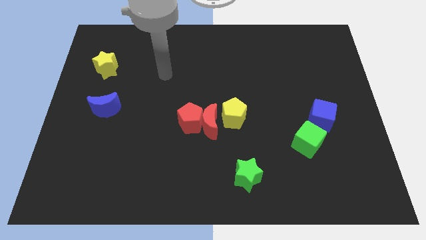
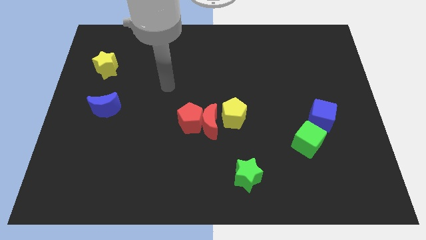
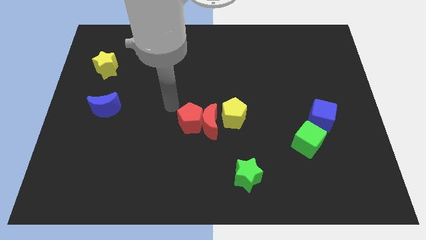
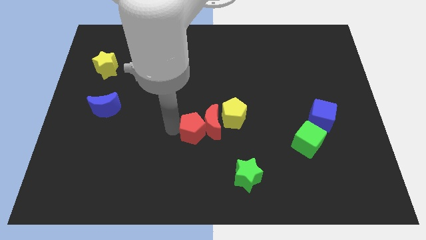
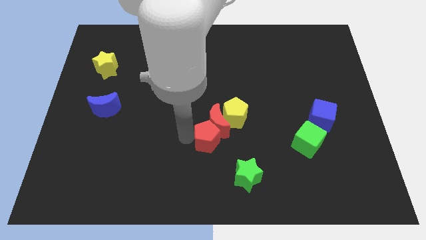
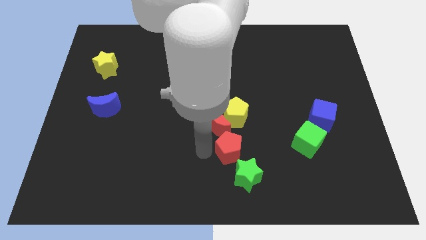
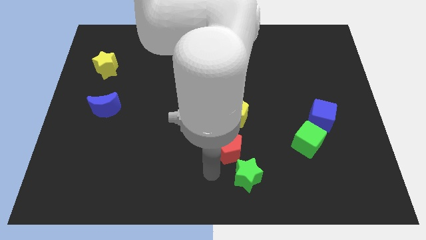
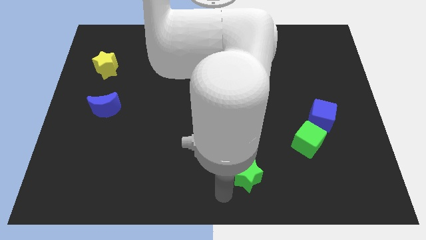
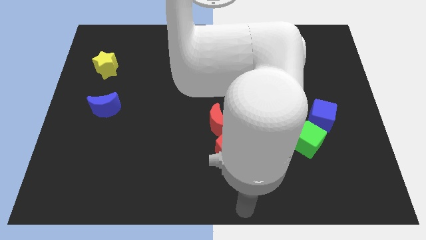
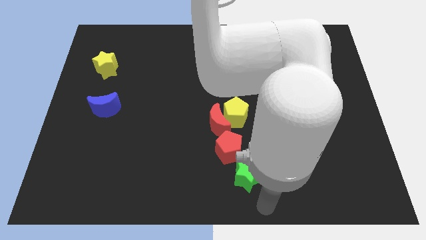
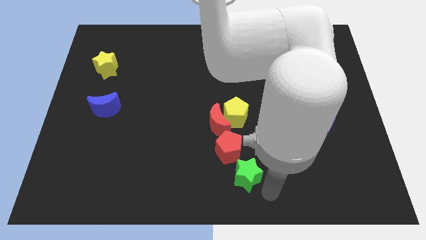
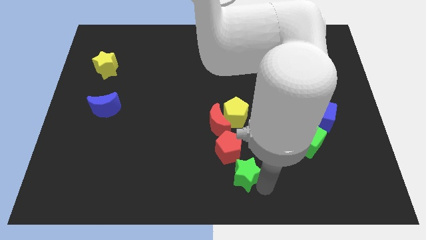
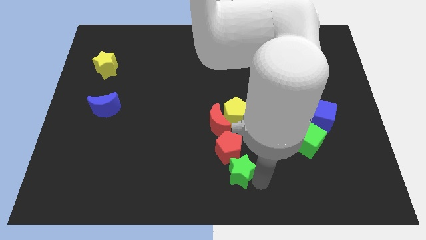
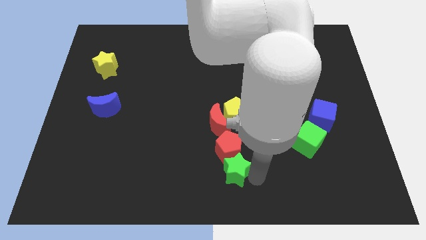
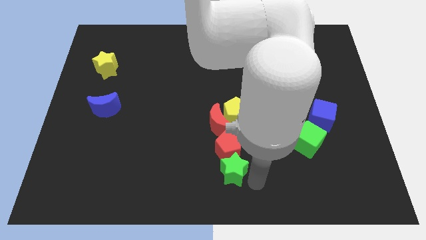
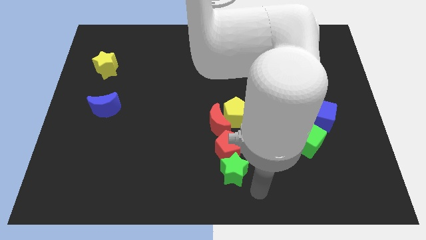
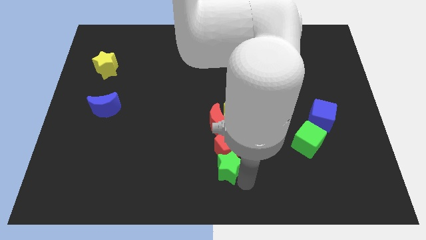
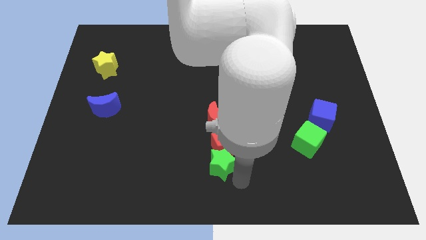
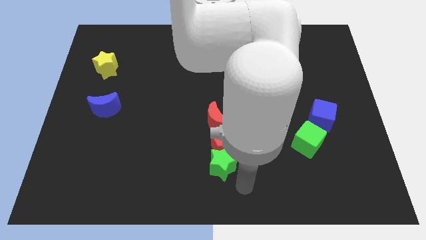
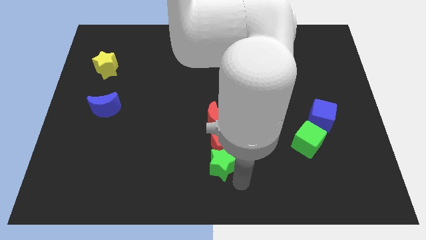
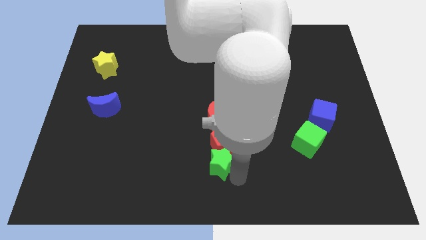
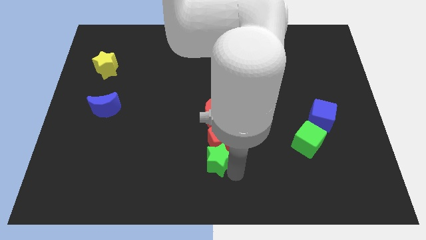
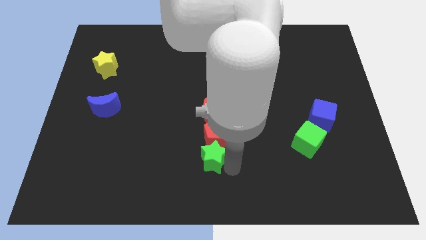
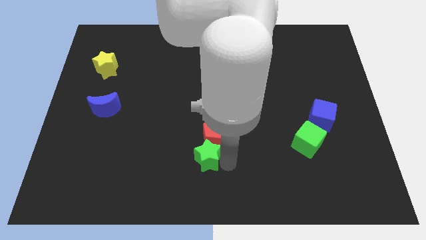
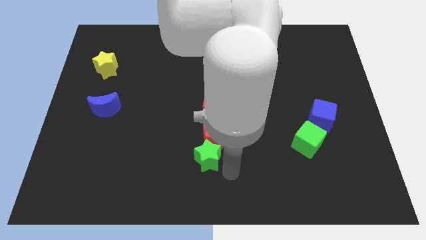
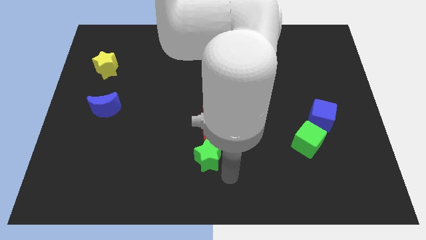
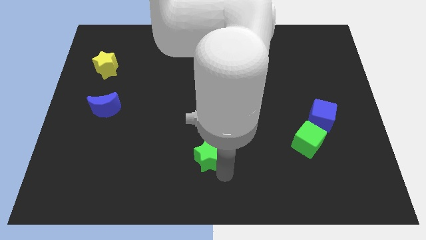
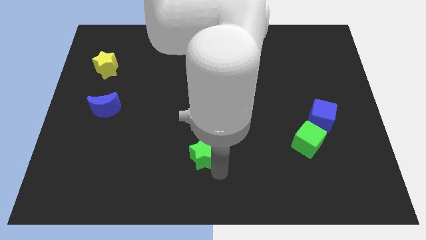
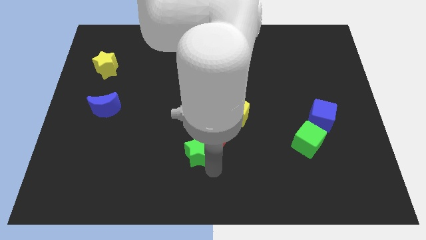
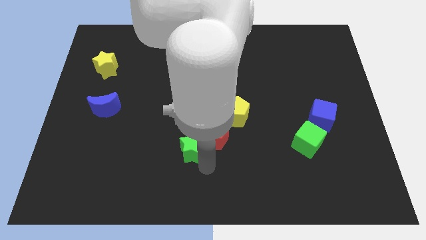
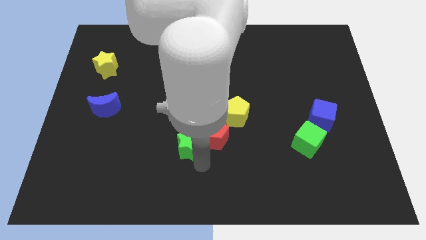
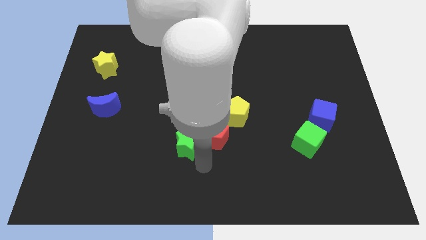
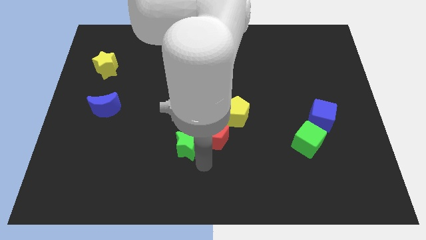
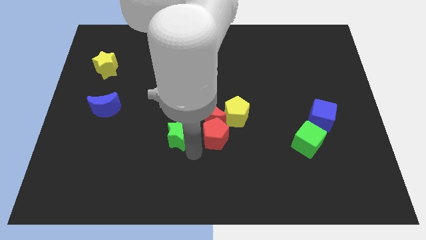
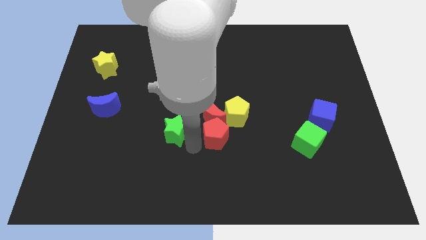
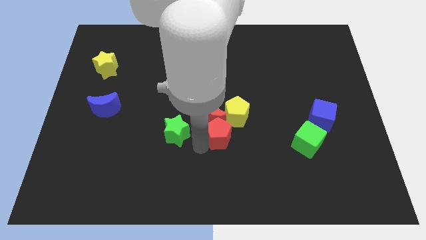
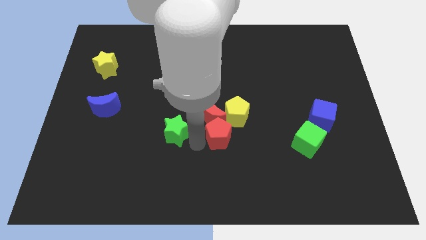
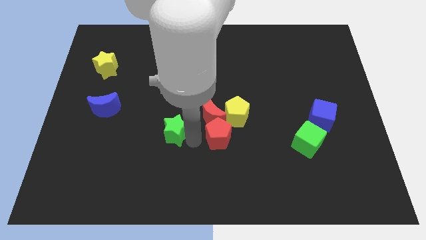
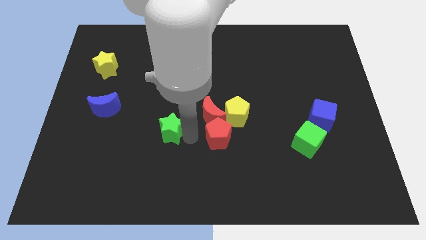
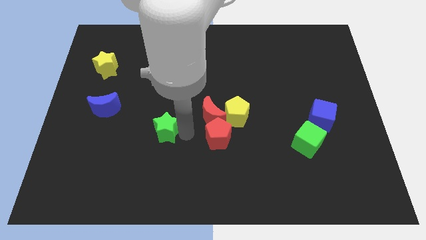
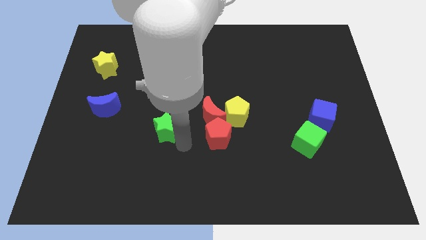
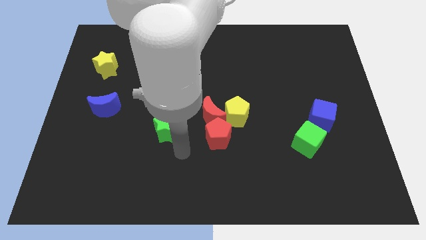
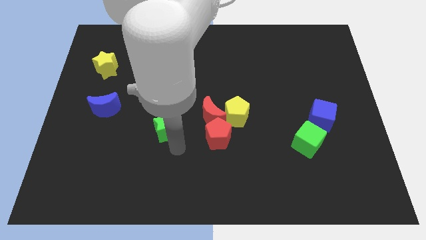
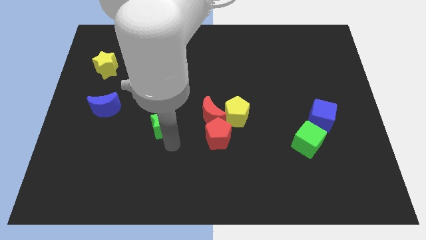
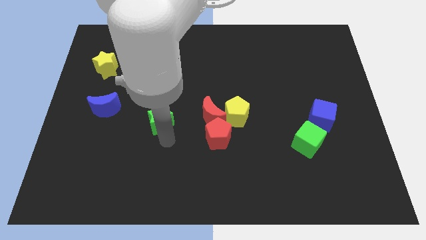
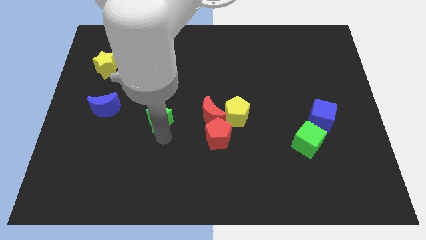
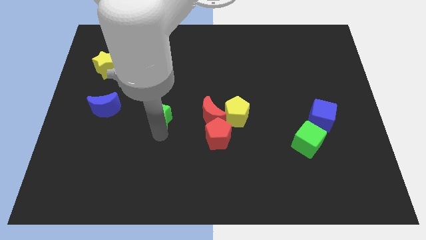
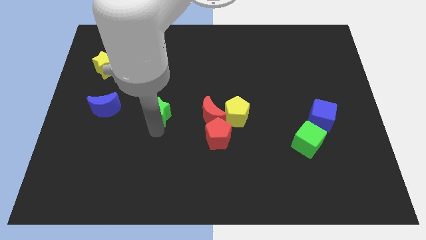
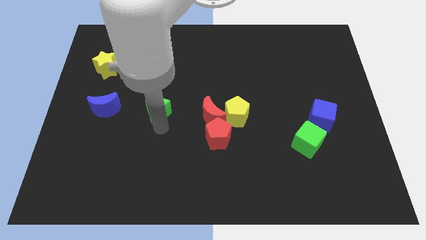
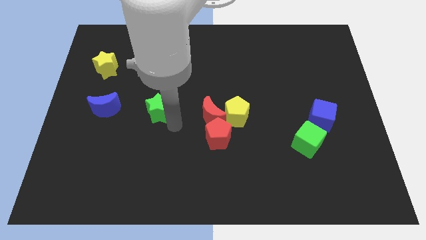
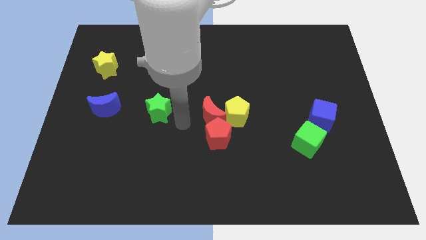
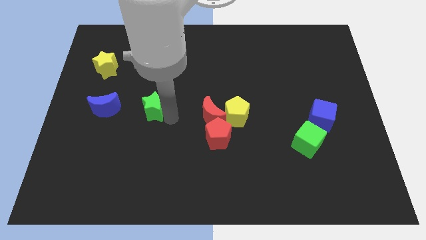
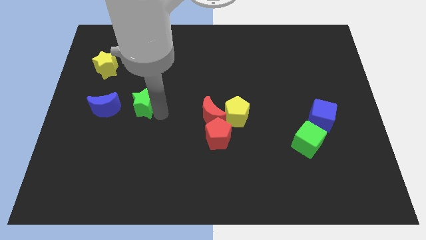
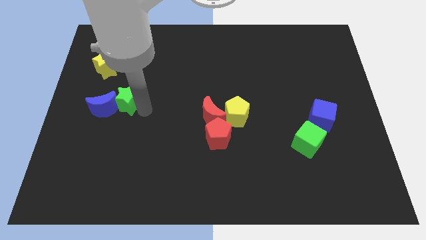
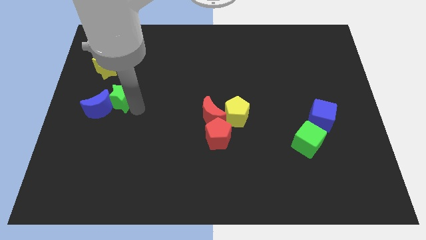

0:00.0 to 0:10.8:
push the green star to the bottom right side of the yellow star

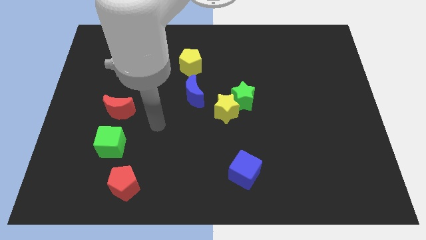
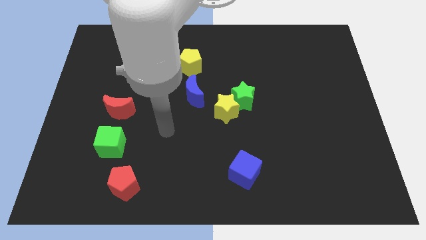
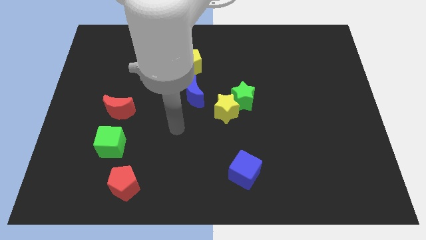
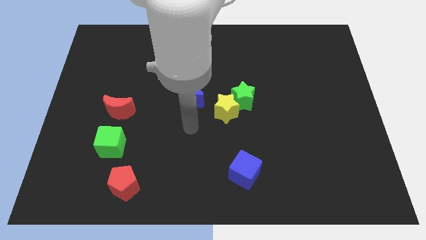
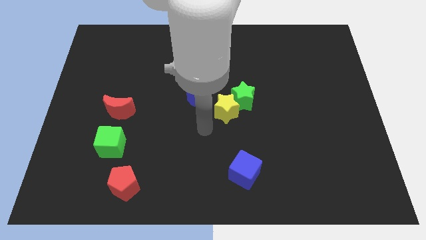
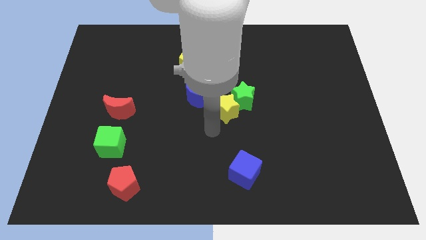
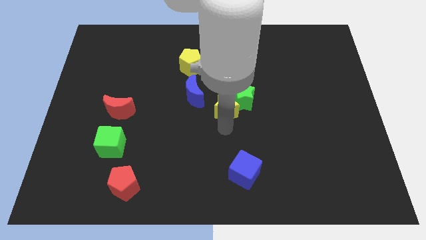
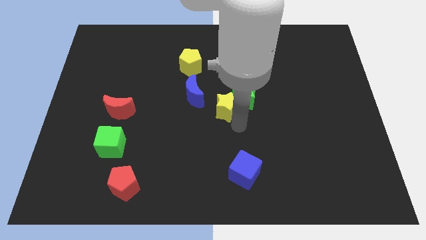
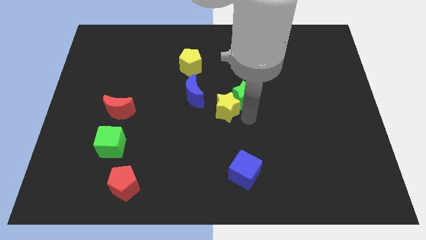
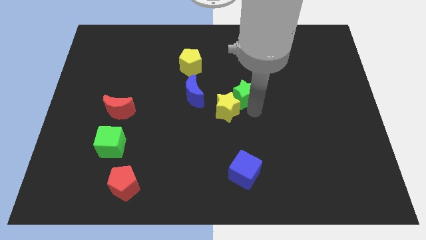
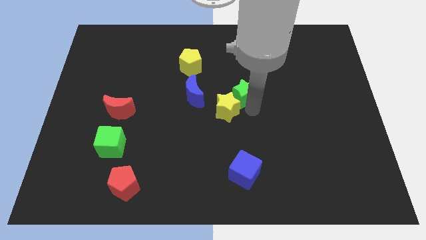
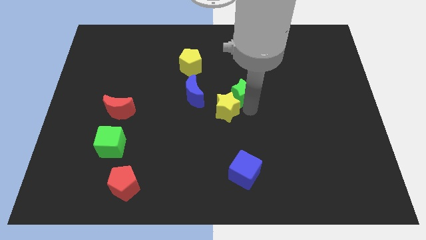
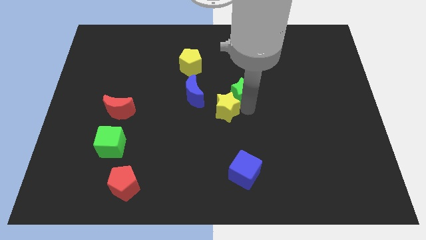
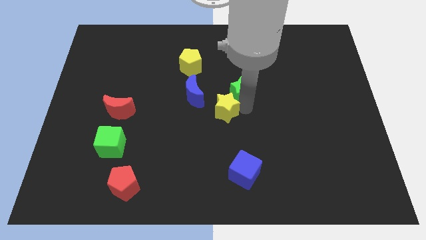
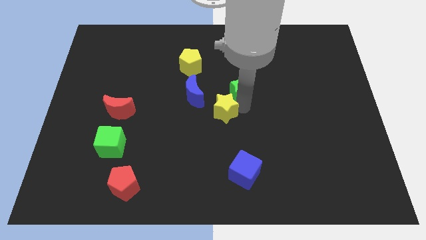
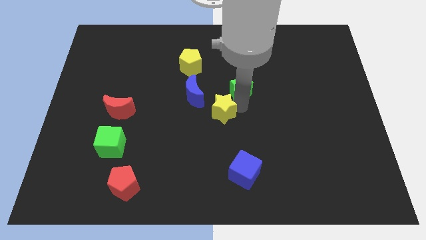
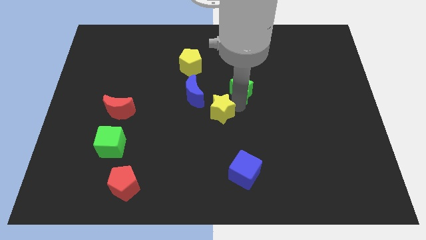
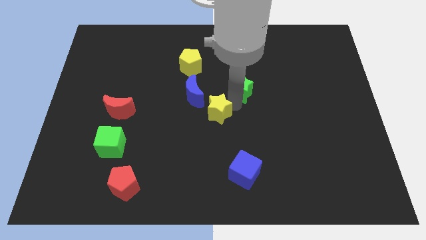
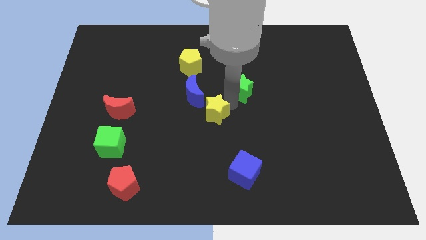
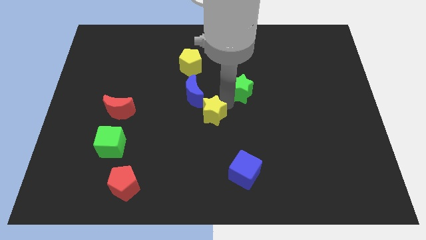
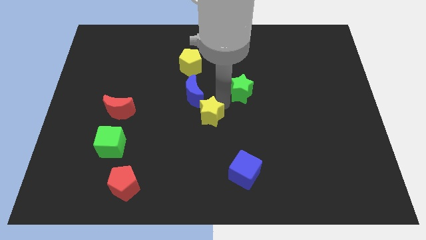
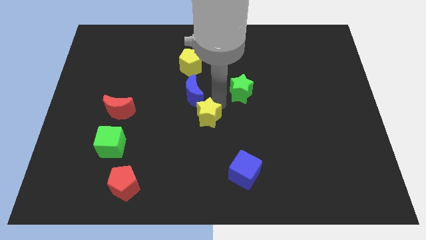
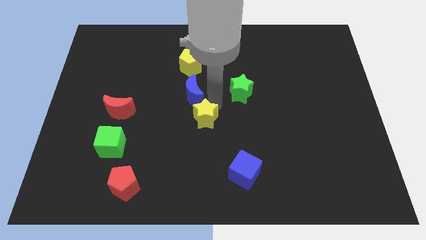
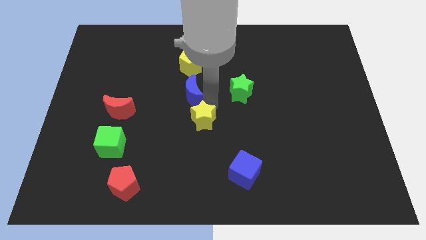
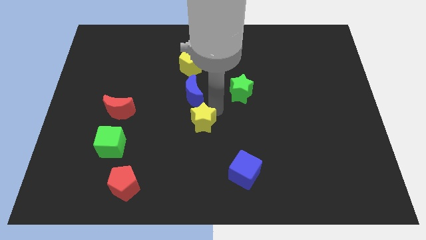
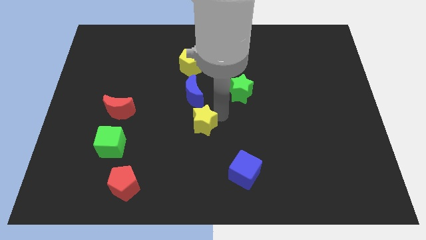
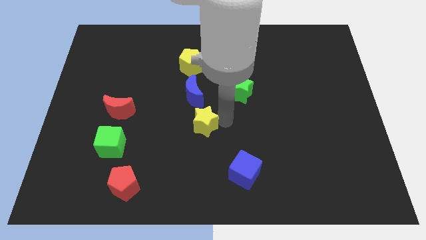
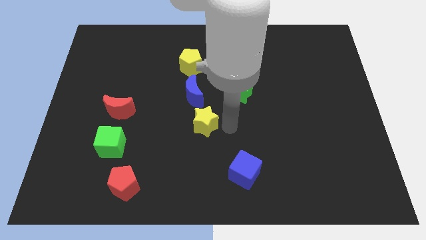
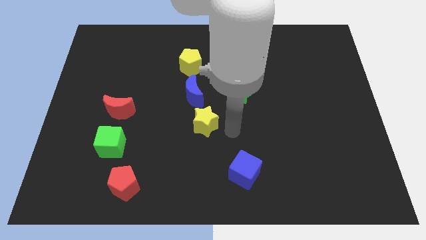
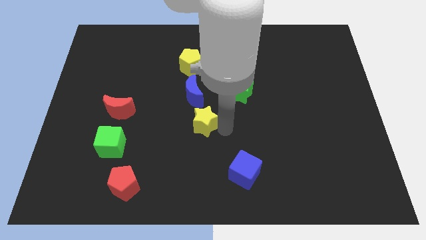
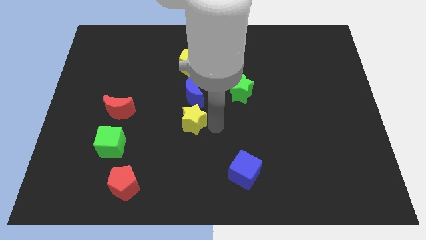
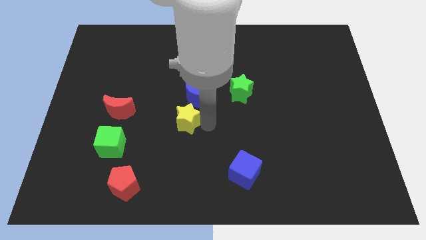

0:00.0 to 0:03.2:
put the yellow star diagonally down and to the left of the blue moon
